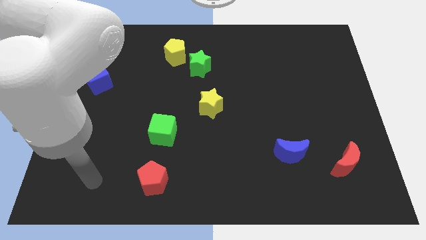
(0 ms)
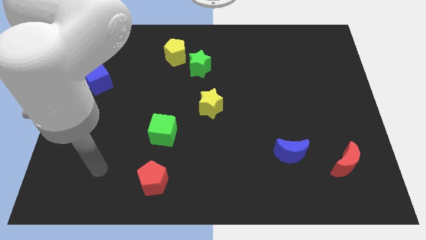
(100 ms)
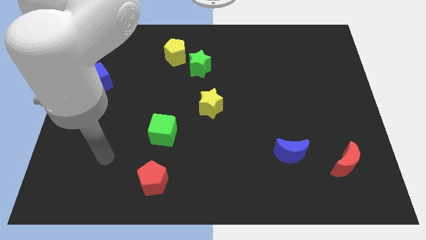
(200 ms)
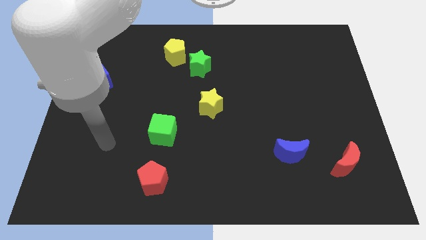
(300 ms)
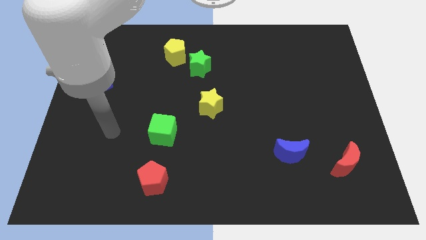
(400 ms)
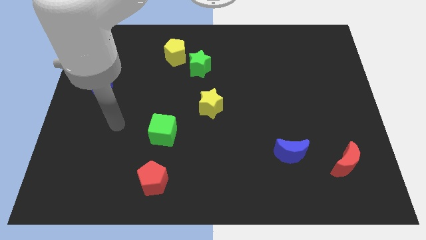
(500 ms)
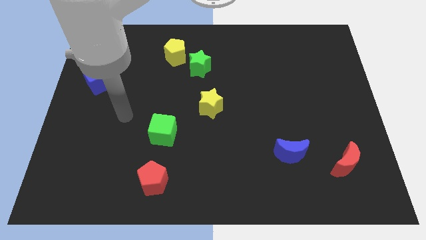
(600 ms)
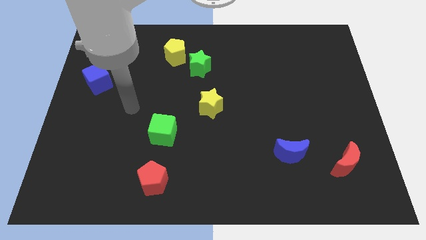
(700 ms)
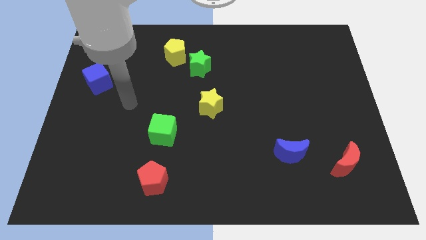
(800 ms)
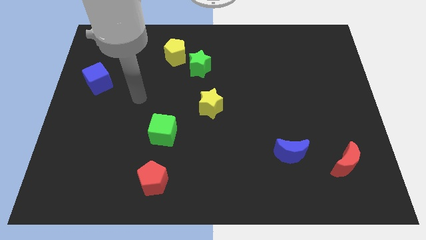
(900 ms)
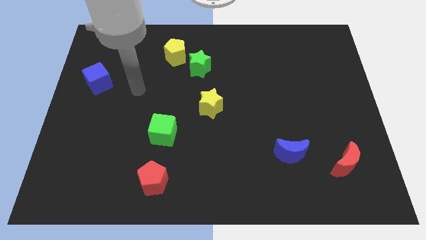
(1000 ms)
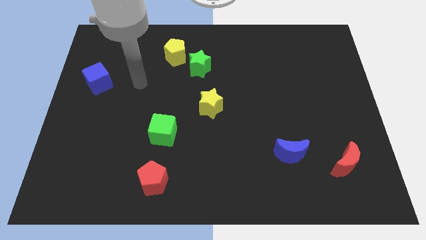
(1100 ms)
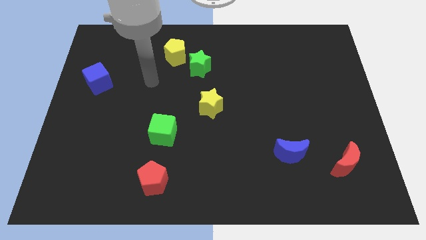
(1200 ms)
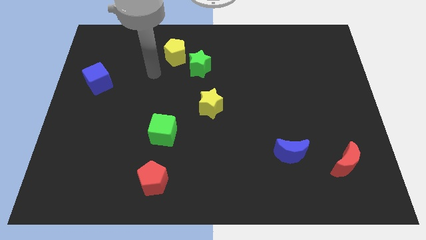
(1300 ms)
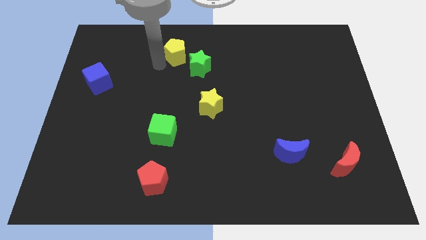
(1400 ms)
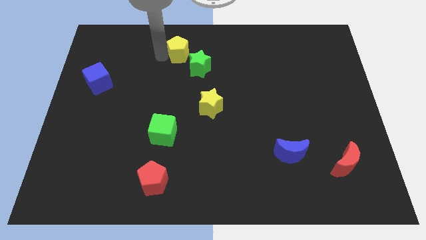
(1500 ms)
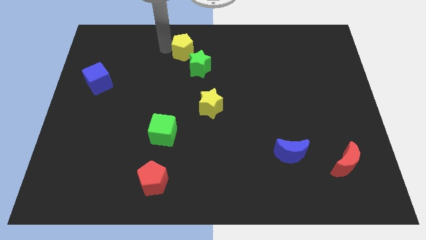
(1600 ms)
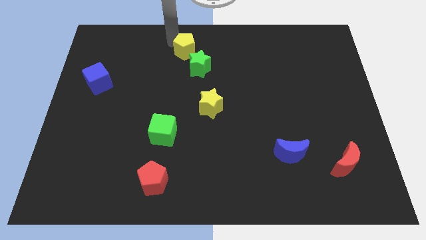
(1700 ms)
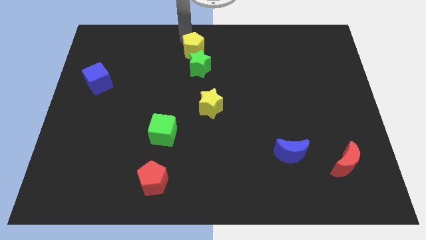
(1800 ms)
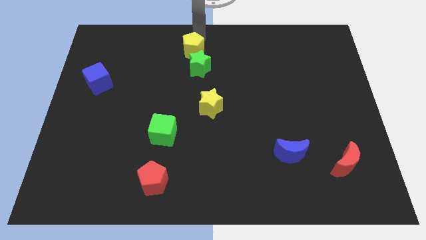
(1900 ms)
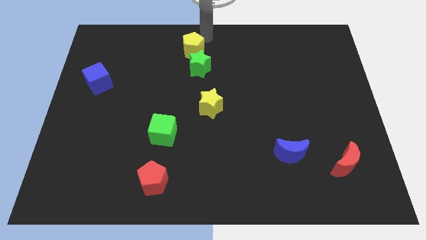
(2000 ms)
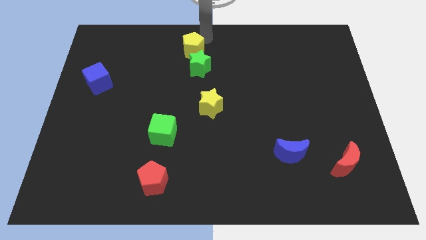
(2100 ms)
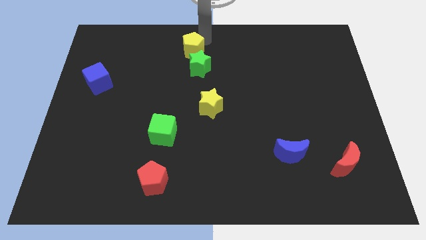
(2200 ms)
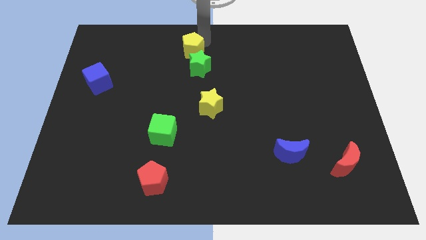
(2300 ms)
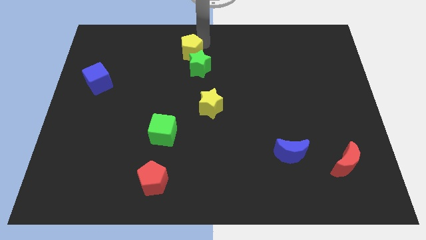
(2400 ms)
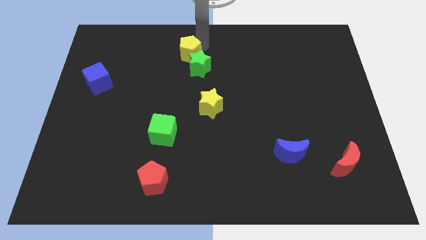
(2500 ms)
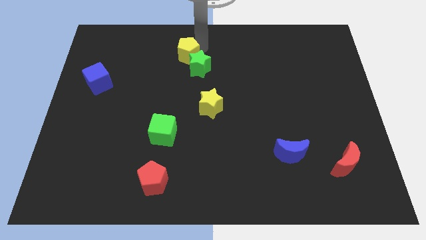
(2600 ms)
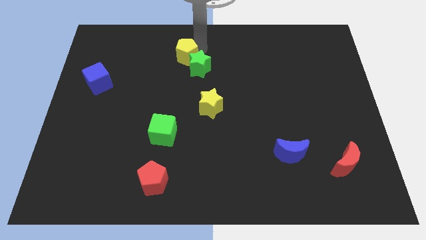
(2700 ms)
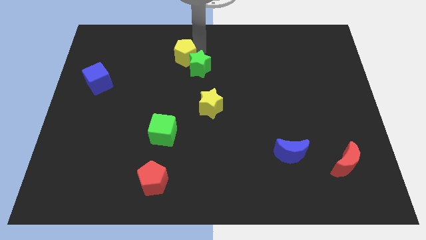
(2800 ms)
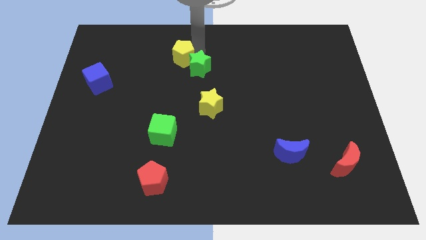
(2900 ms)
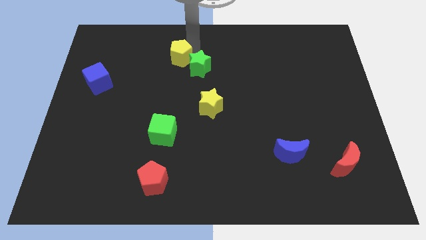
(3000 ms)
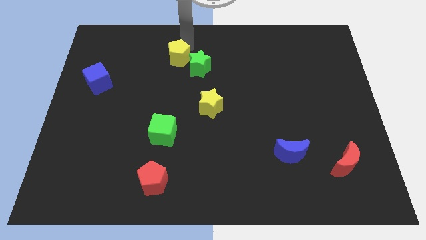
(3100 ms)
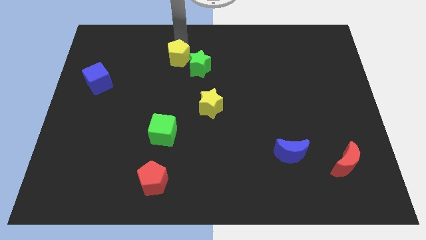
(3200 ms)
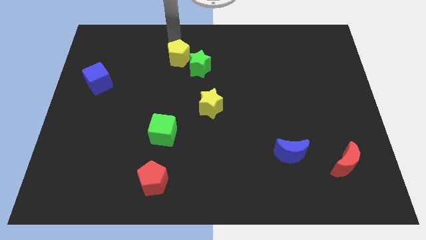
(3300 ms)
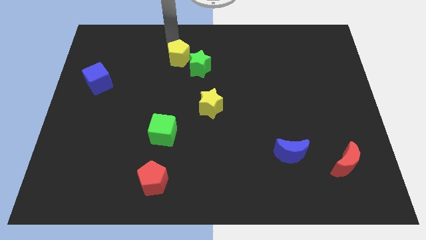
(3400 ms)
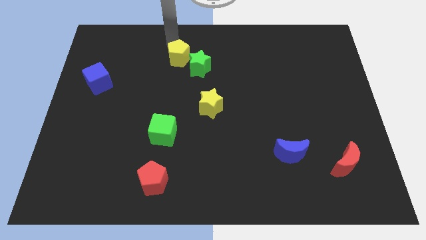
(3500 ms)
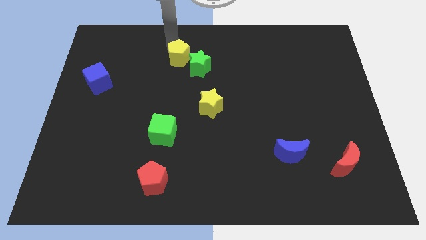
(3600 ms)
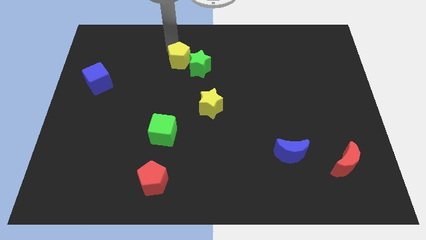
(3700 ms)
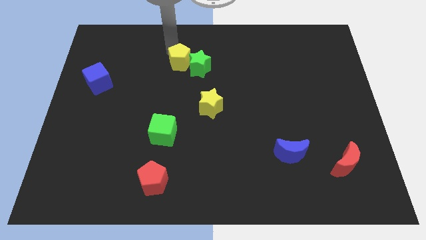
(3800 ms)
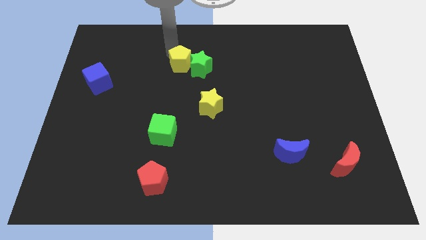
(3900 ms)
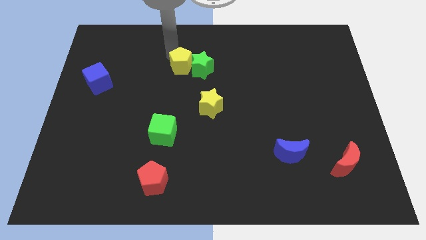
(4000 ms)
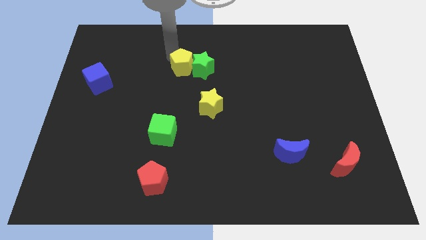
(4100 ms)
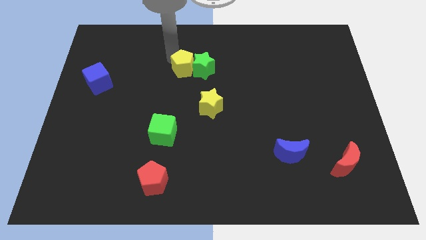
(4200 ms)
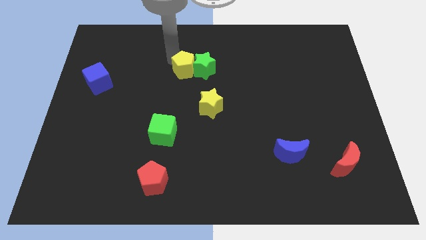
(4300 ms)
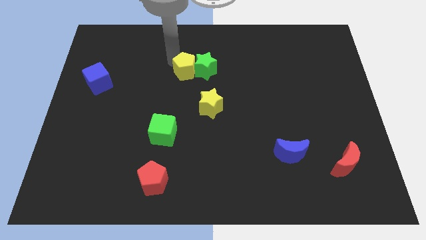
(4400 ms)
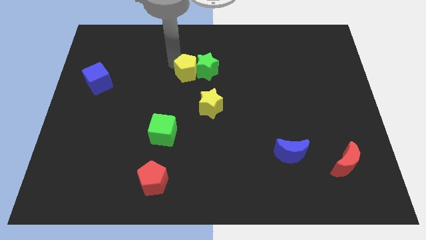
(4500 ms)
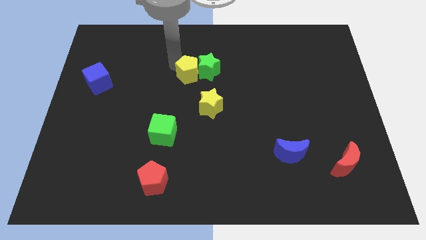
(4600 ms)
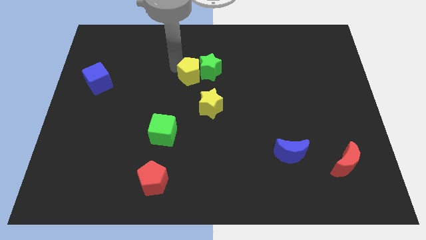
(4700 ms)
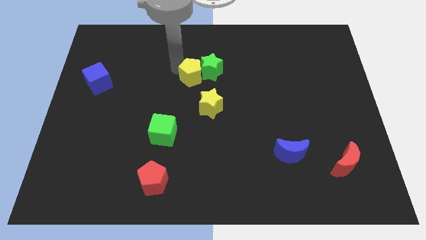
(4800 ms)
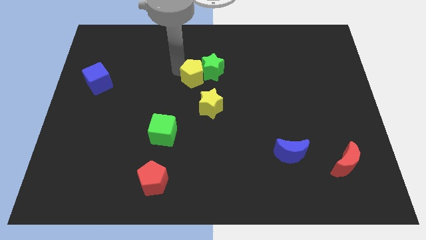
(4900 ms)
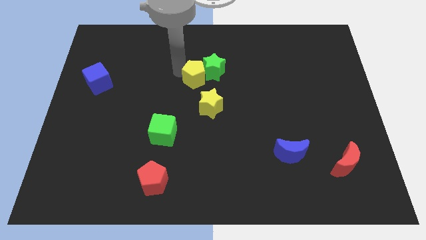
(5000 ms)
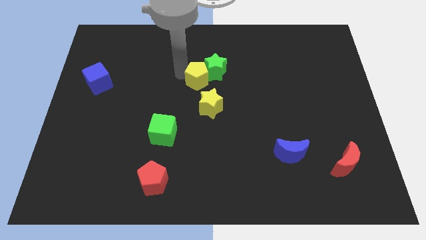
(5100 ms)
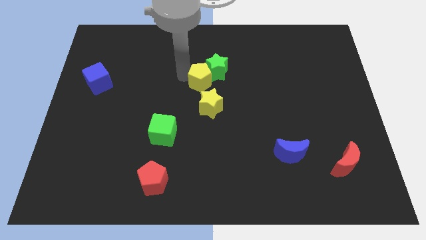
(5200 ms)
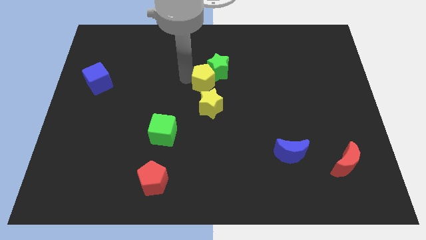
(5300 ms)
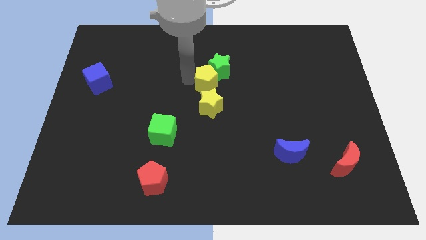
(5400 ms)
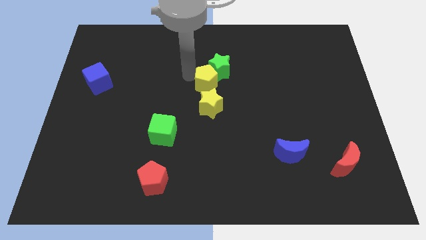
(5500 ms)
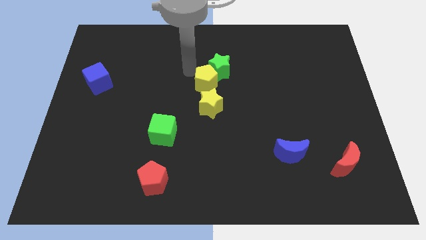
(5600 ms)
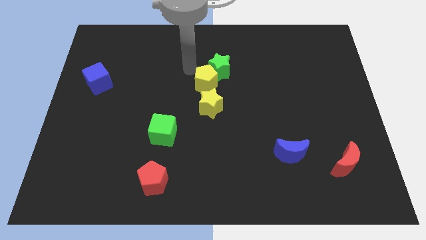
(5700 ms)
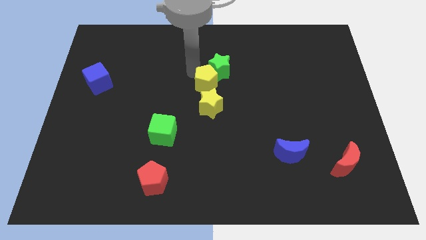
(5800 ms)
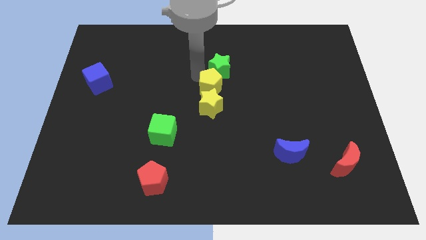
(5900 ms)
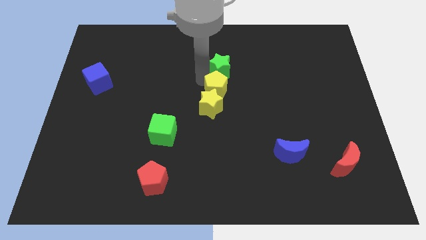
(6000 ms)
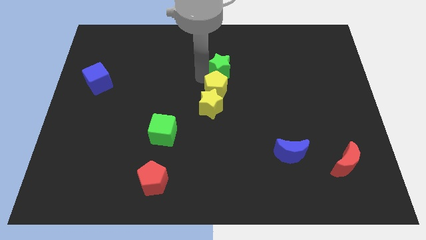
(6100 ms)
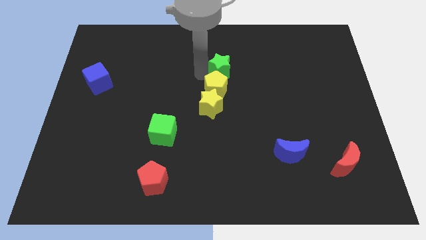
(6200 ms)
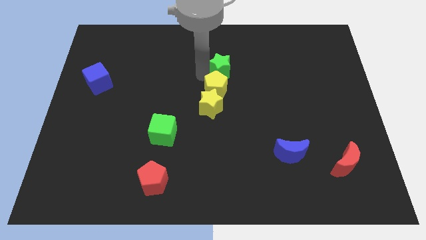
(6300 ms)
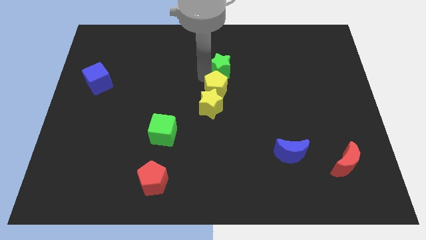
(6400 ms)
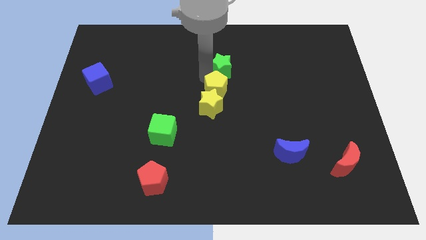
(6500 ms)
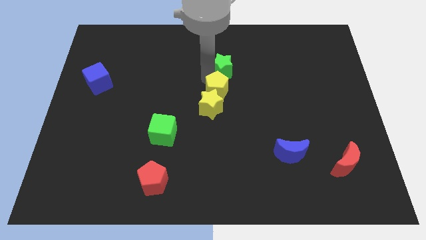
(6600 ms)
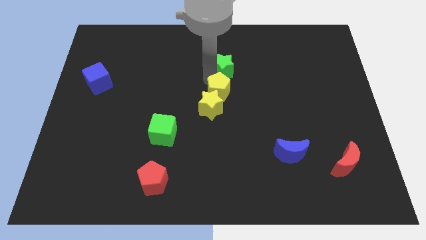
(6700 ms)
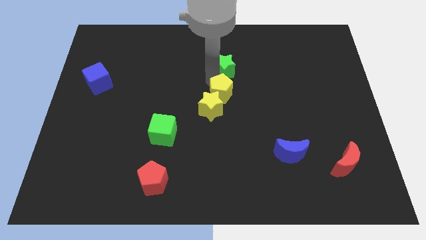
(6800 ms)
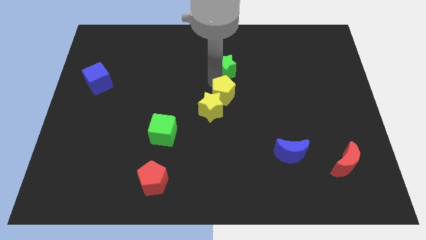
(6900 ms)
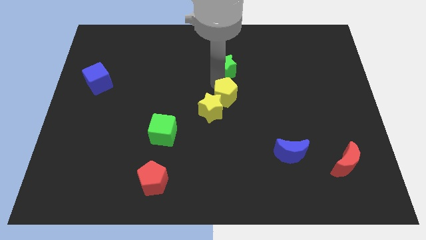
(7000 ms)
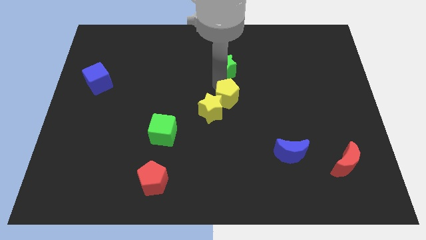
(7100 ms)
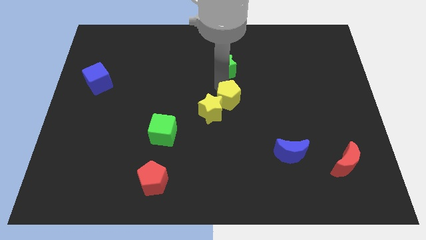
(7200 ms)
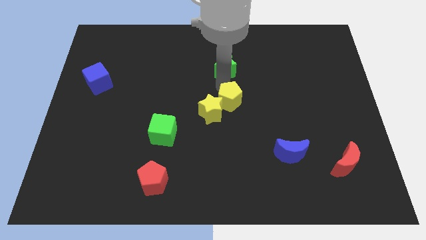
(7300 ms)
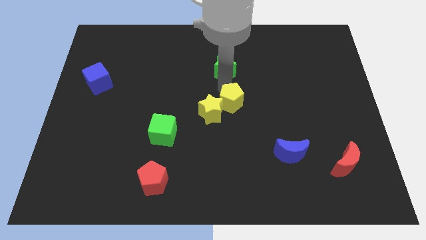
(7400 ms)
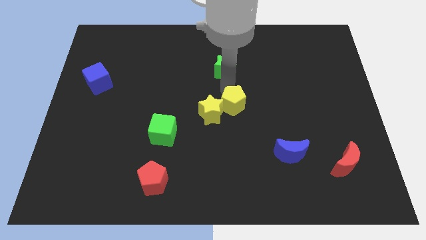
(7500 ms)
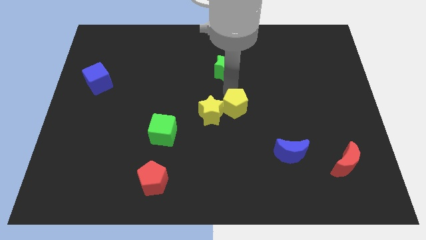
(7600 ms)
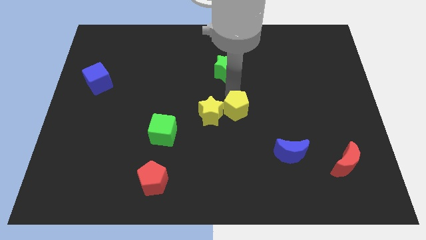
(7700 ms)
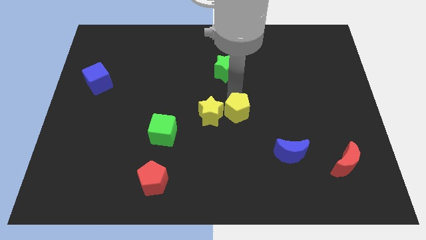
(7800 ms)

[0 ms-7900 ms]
move the yellow pentagon to the bottom right side of the yellow star
